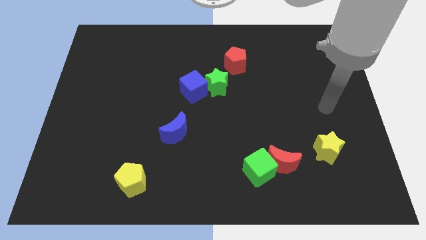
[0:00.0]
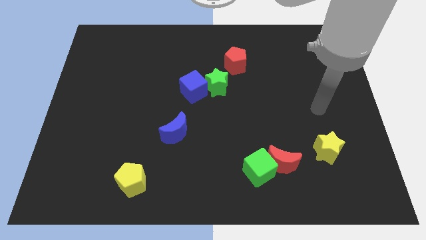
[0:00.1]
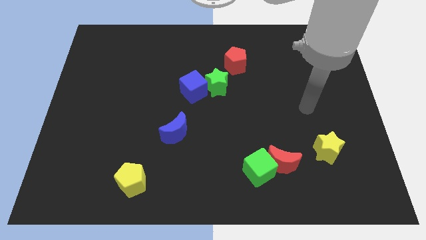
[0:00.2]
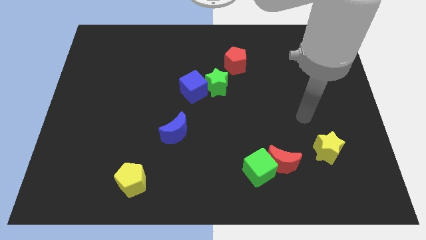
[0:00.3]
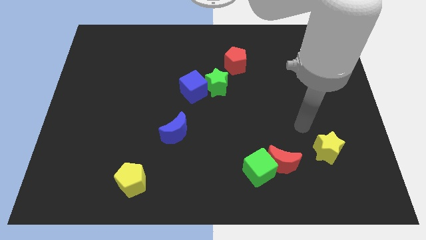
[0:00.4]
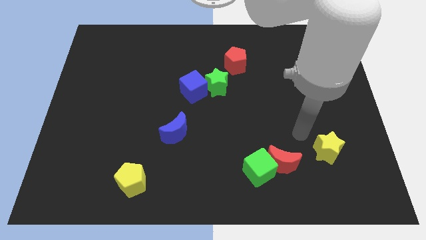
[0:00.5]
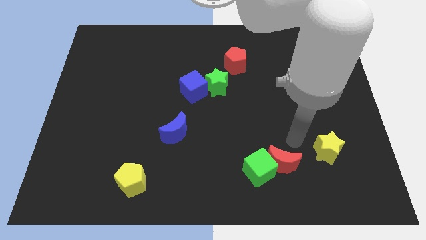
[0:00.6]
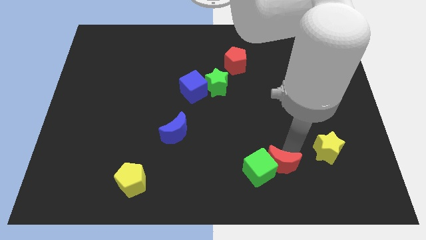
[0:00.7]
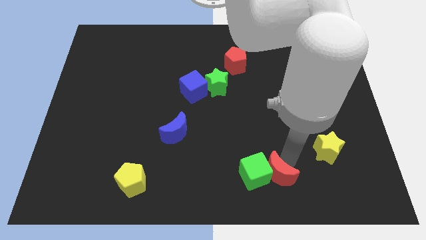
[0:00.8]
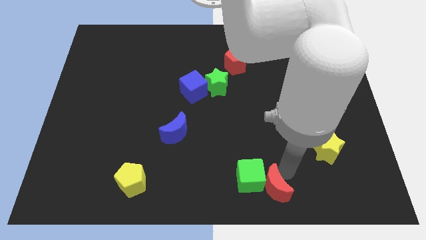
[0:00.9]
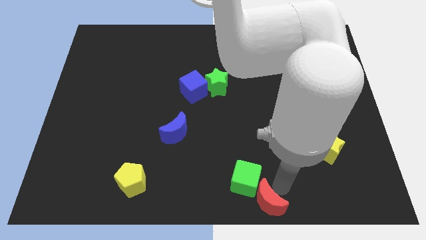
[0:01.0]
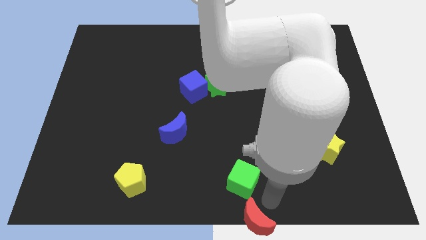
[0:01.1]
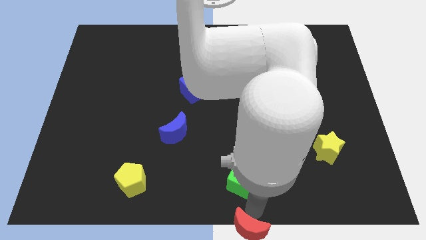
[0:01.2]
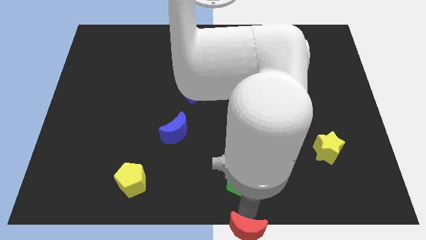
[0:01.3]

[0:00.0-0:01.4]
pull the green cube apart from the red moon

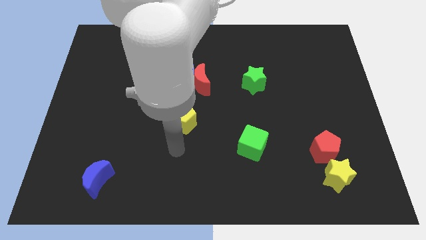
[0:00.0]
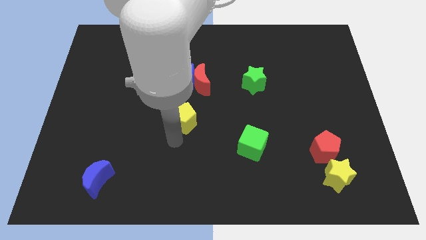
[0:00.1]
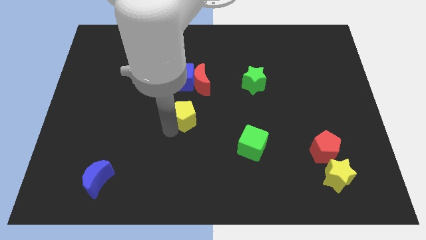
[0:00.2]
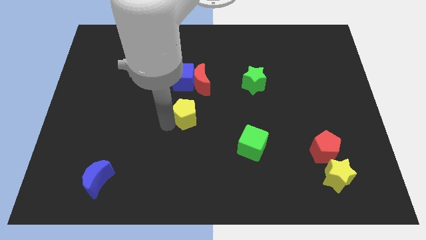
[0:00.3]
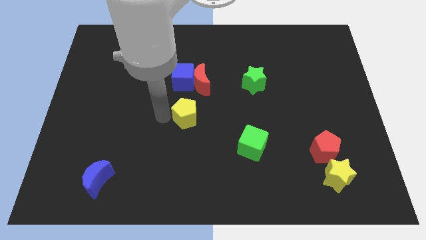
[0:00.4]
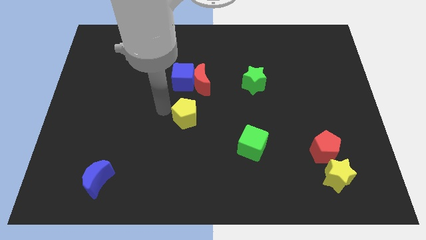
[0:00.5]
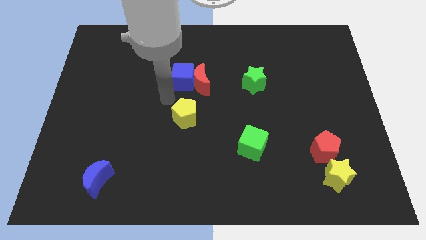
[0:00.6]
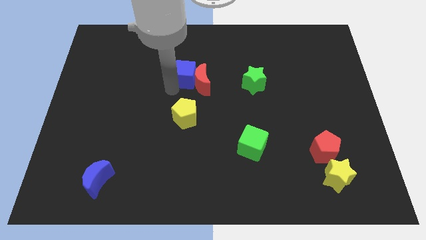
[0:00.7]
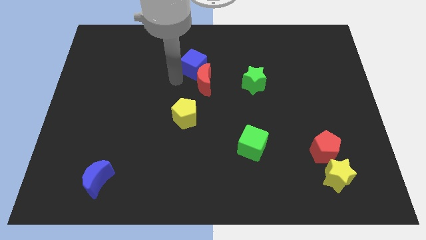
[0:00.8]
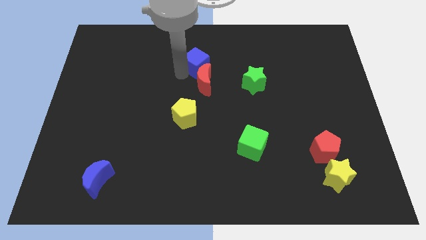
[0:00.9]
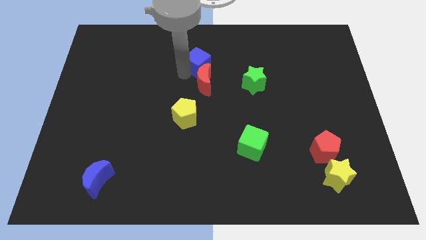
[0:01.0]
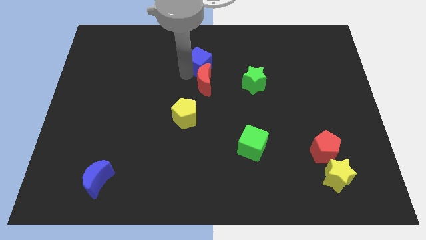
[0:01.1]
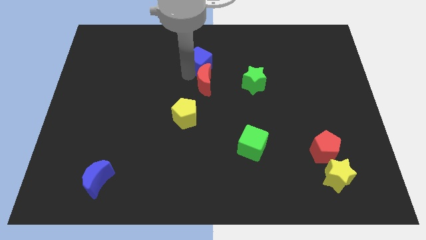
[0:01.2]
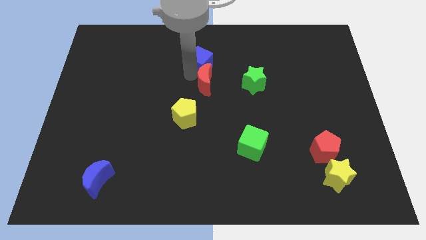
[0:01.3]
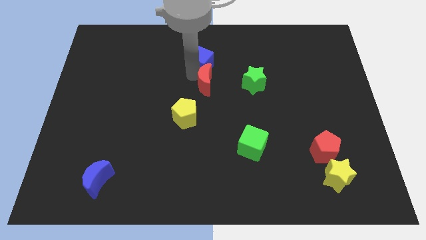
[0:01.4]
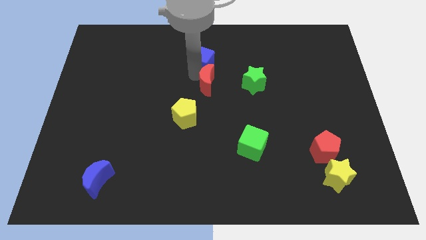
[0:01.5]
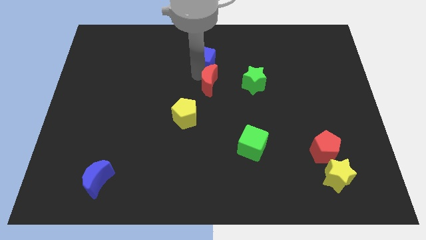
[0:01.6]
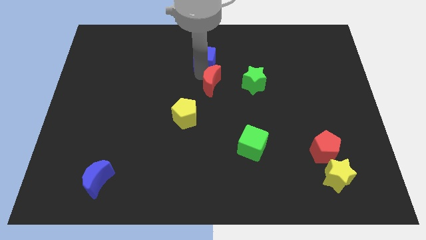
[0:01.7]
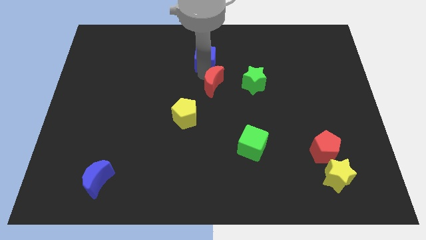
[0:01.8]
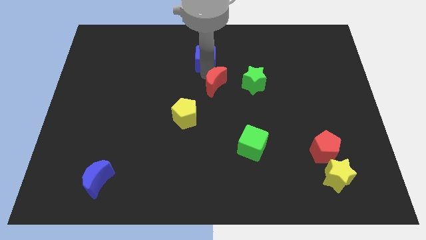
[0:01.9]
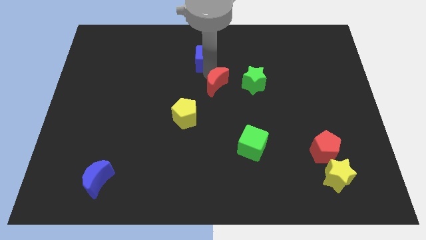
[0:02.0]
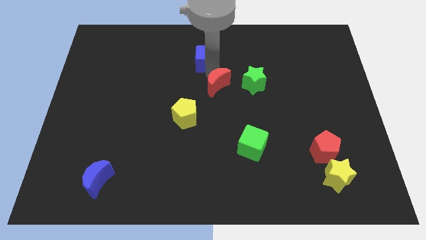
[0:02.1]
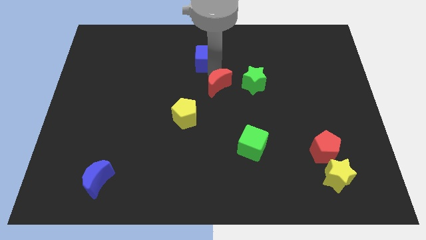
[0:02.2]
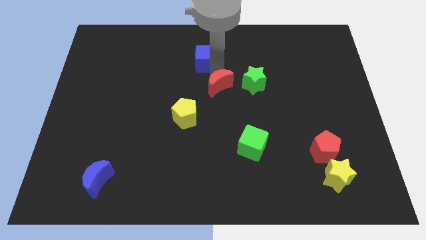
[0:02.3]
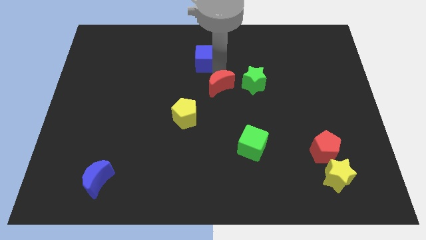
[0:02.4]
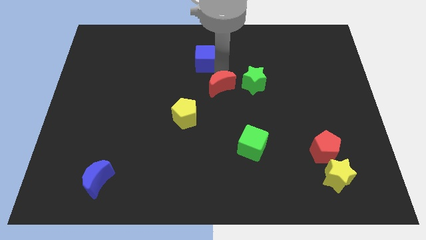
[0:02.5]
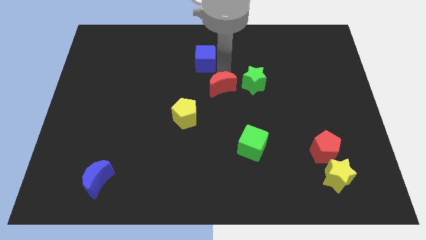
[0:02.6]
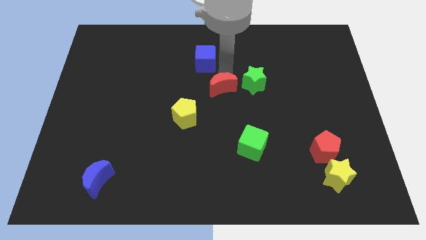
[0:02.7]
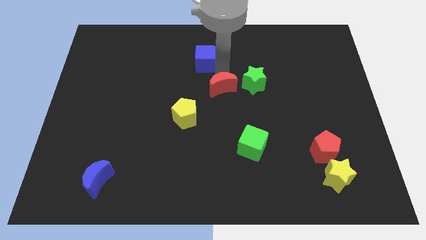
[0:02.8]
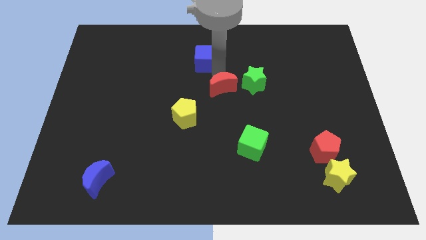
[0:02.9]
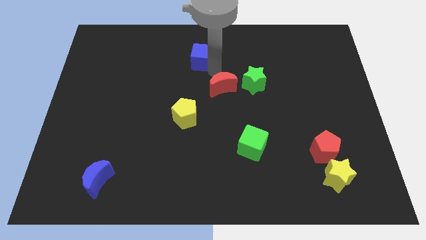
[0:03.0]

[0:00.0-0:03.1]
pull the red moon apart from the blue cube

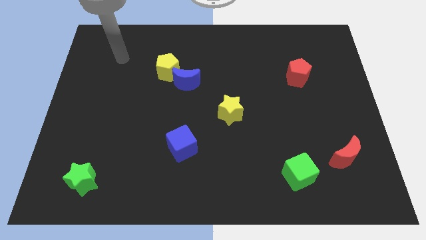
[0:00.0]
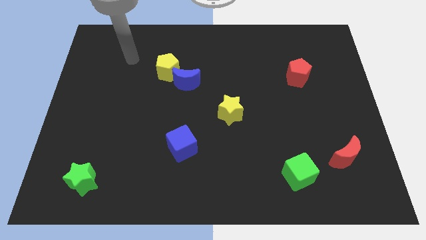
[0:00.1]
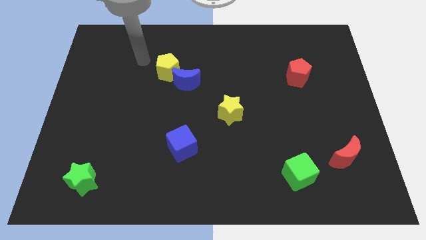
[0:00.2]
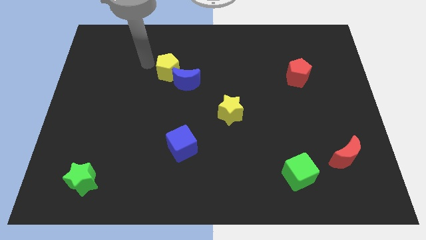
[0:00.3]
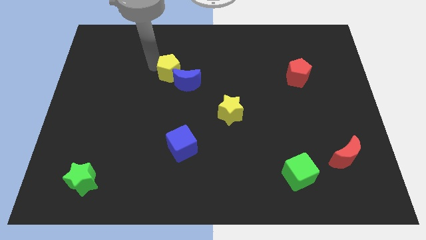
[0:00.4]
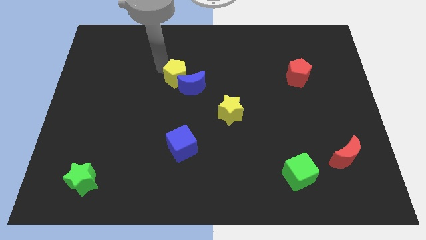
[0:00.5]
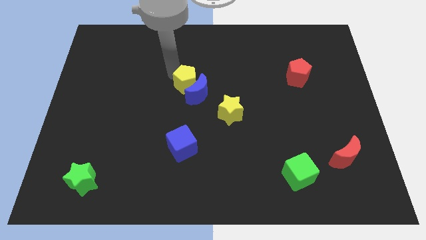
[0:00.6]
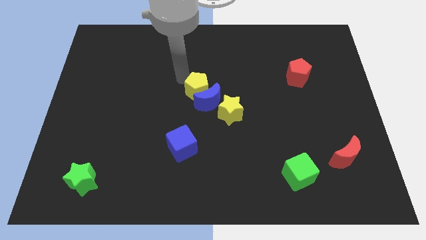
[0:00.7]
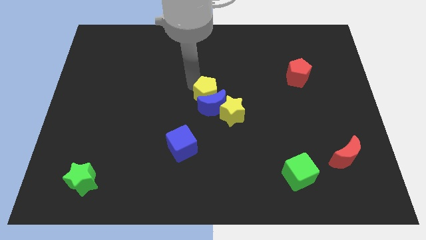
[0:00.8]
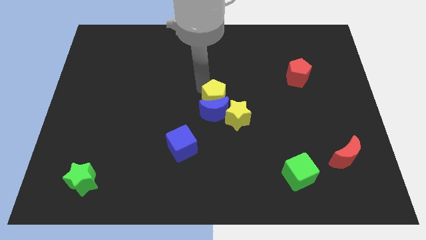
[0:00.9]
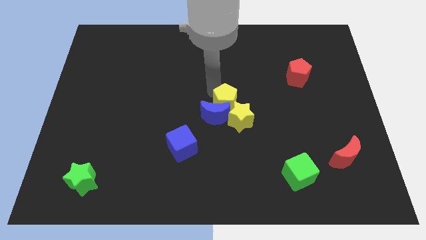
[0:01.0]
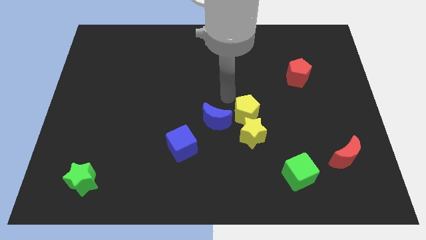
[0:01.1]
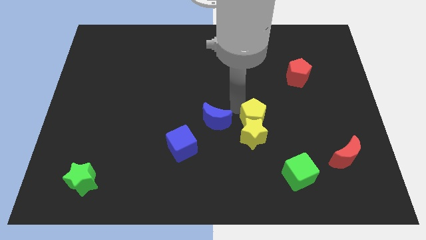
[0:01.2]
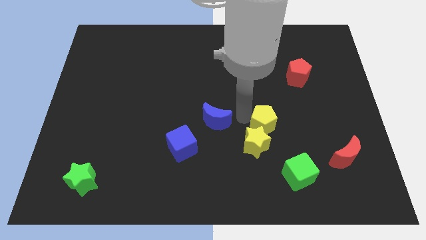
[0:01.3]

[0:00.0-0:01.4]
pull the blue moon apart from the yellow pentagon

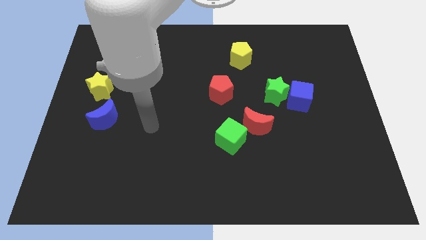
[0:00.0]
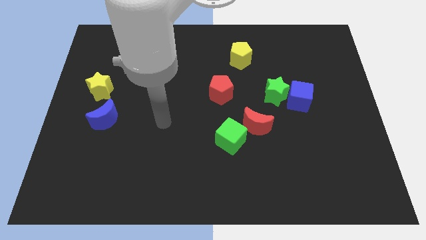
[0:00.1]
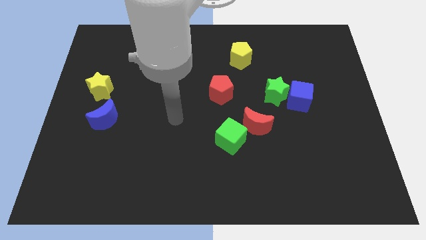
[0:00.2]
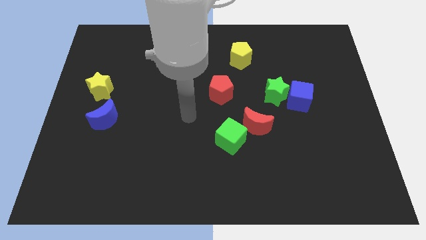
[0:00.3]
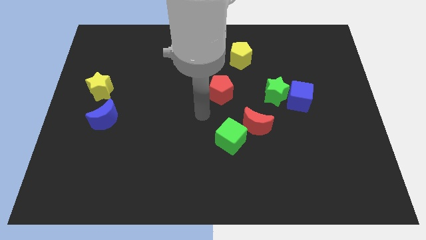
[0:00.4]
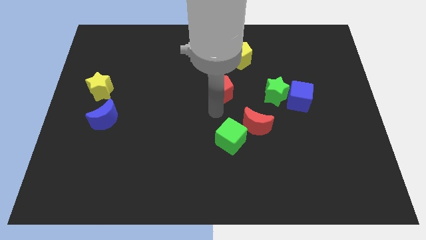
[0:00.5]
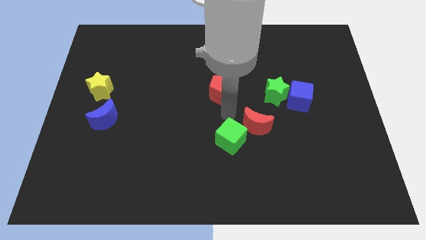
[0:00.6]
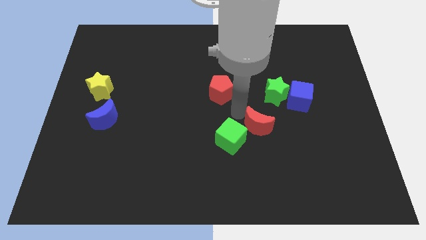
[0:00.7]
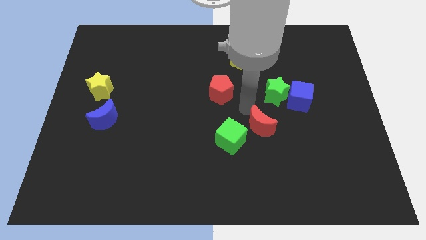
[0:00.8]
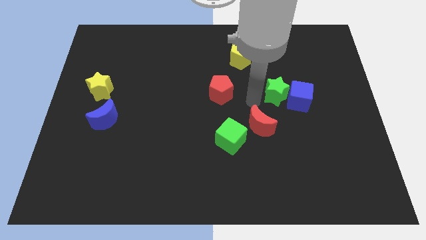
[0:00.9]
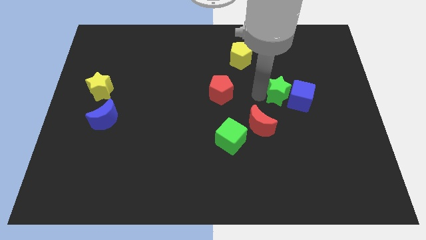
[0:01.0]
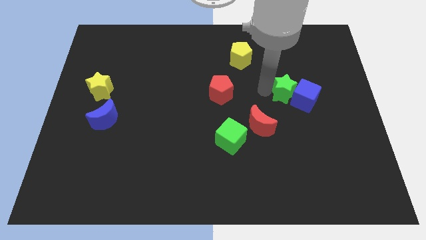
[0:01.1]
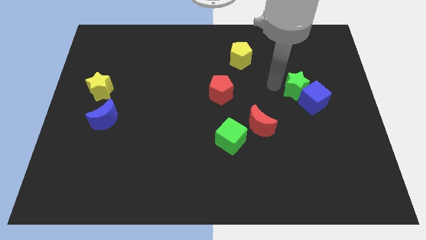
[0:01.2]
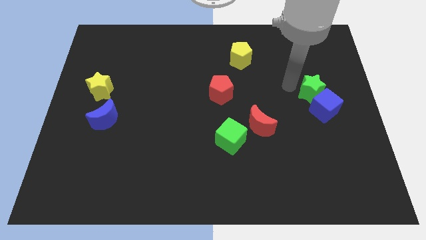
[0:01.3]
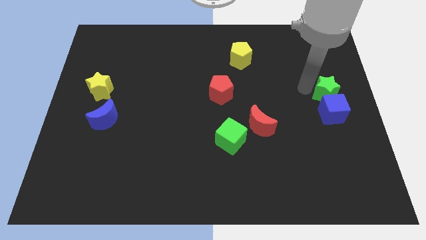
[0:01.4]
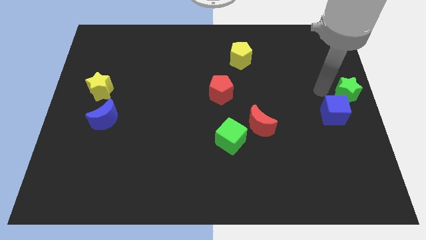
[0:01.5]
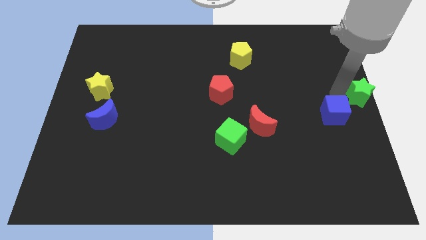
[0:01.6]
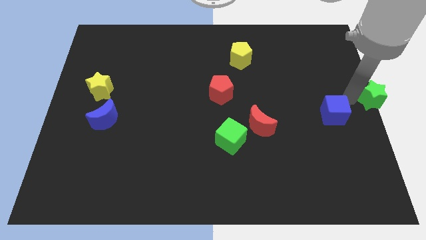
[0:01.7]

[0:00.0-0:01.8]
pull the blue cube apart from the green star

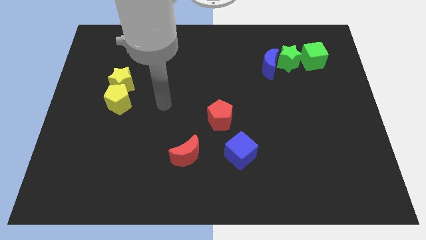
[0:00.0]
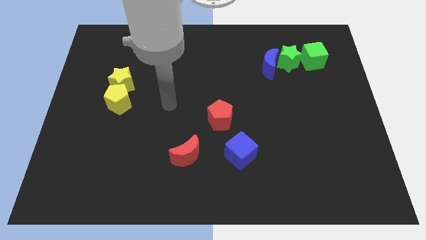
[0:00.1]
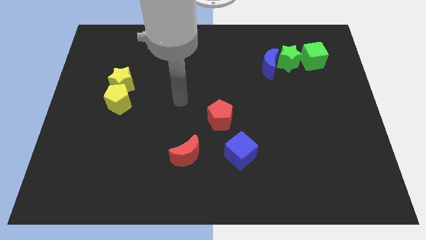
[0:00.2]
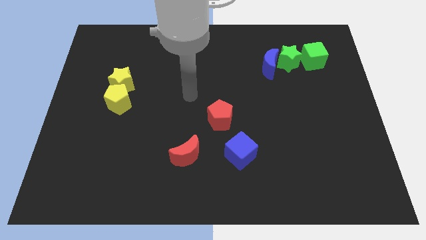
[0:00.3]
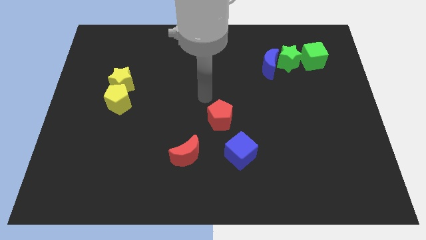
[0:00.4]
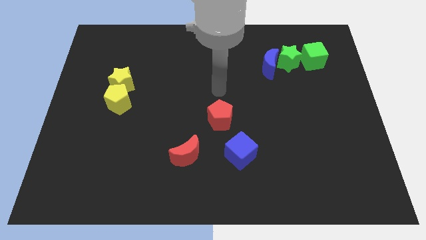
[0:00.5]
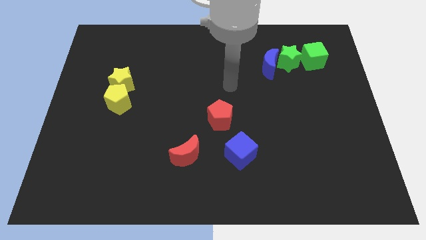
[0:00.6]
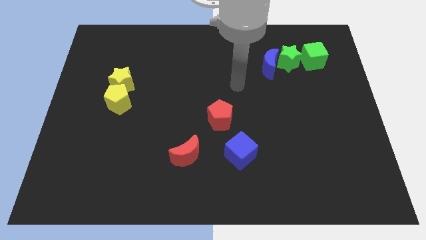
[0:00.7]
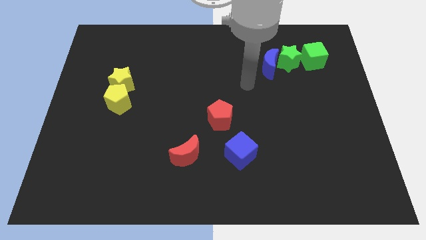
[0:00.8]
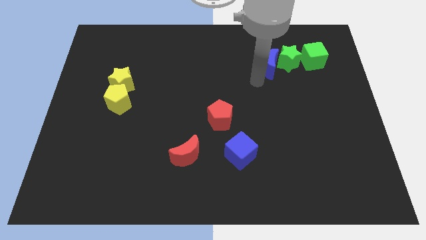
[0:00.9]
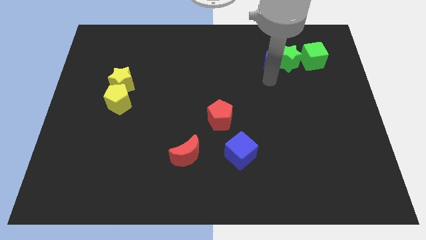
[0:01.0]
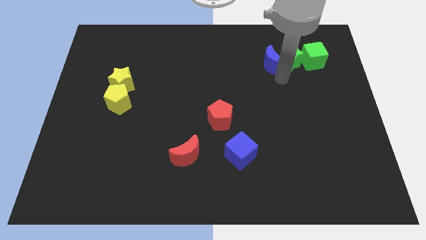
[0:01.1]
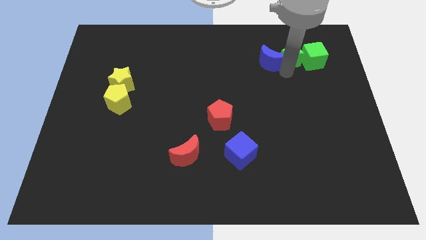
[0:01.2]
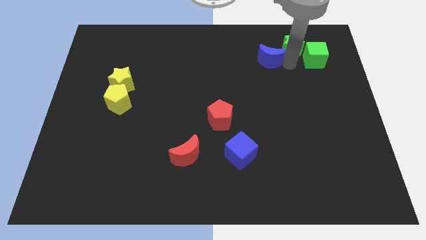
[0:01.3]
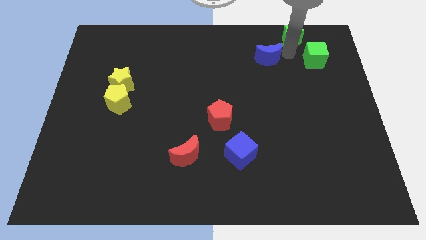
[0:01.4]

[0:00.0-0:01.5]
separate the blue moon from the green star

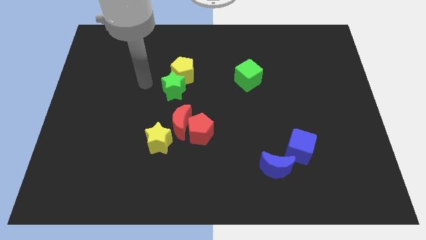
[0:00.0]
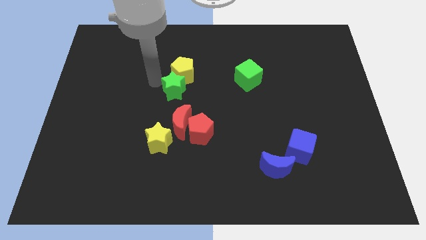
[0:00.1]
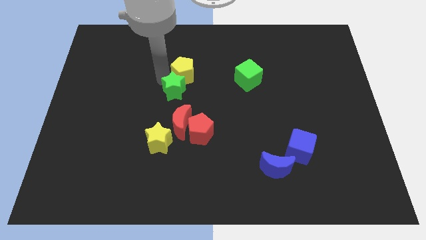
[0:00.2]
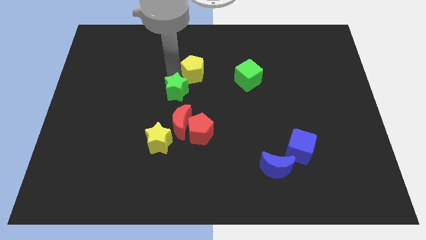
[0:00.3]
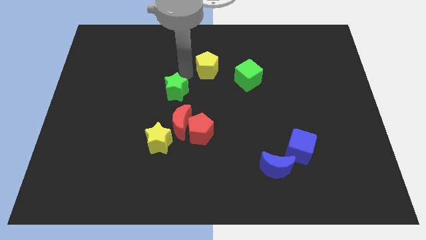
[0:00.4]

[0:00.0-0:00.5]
move the green star away from the yellow pentagon
